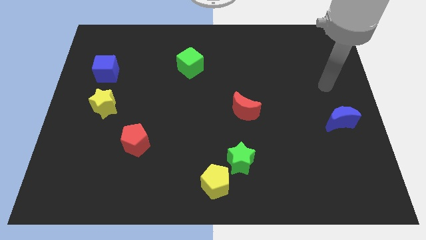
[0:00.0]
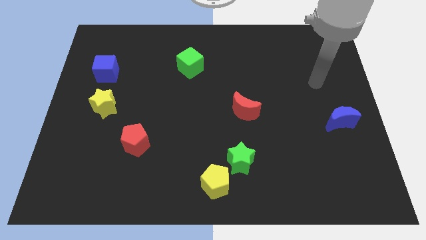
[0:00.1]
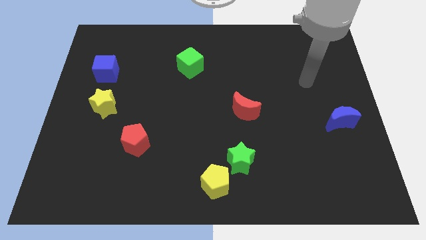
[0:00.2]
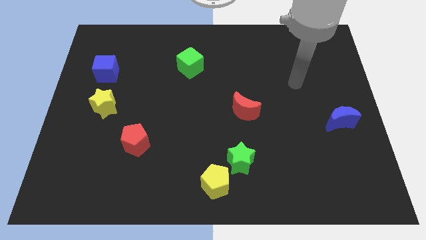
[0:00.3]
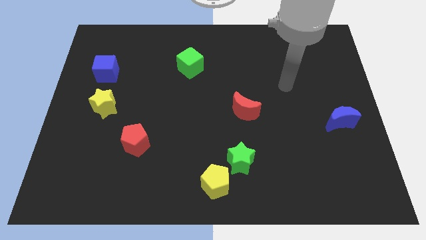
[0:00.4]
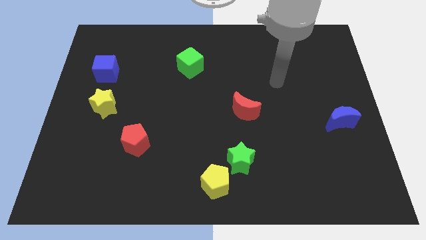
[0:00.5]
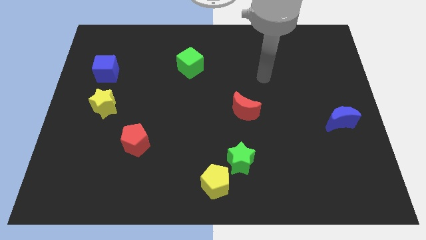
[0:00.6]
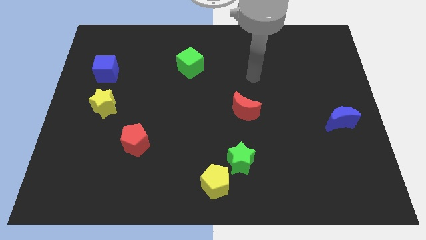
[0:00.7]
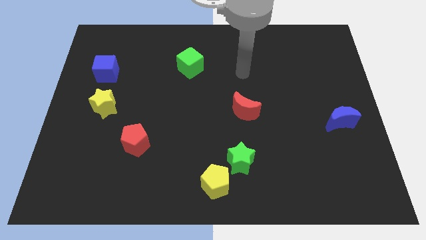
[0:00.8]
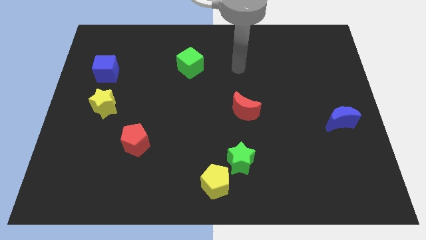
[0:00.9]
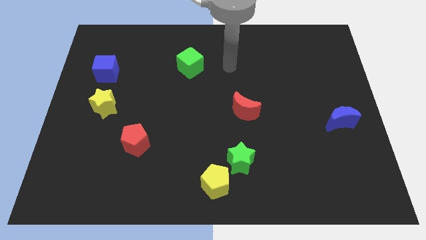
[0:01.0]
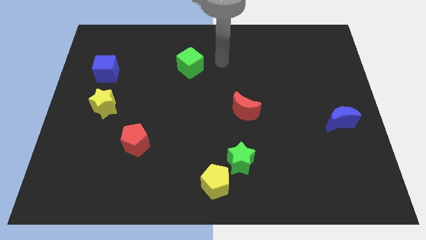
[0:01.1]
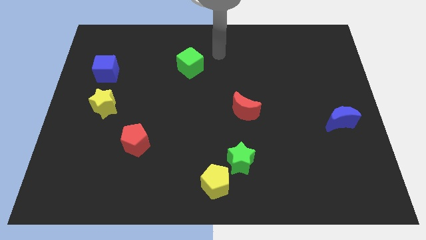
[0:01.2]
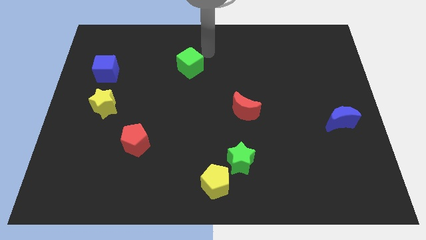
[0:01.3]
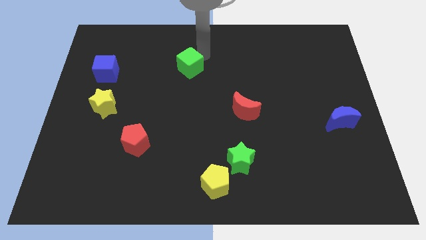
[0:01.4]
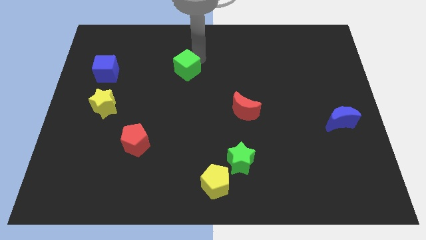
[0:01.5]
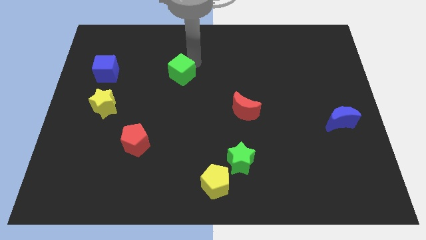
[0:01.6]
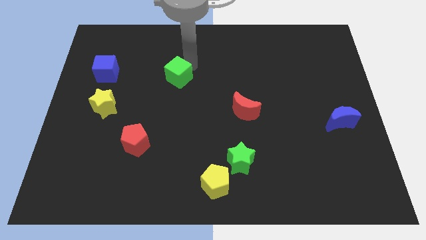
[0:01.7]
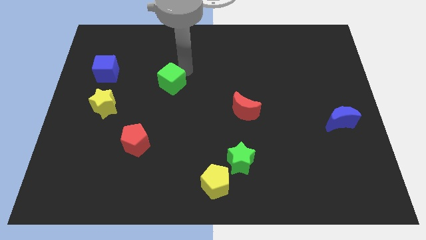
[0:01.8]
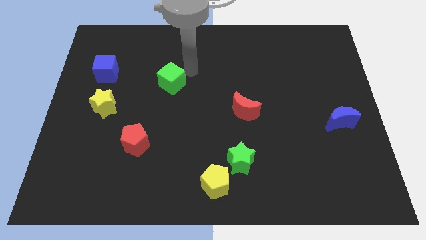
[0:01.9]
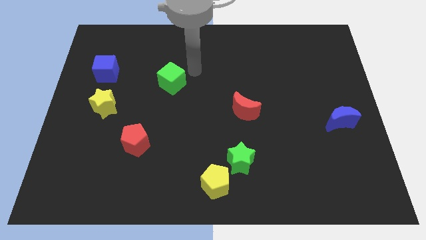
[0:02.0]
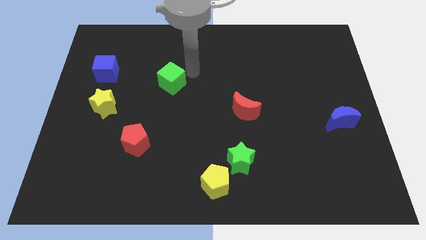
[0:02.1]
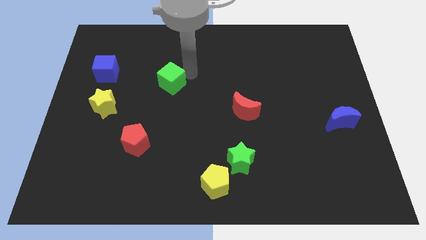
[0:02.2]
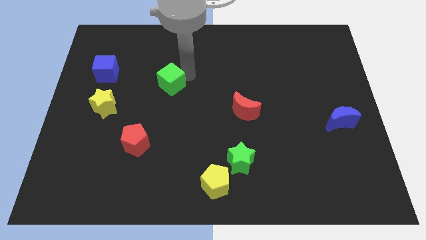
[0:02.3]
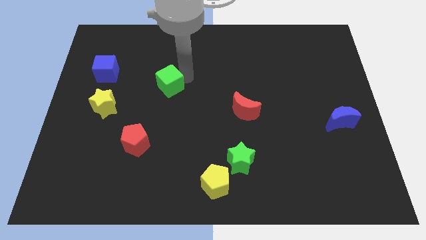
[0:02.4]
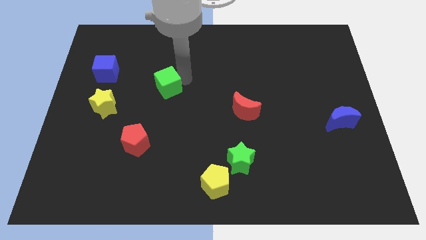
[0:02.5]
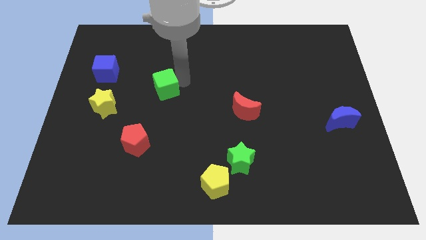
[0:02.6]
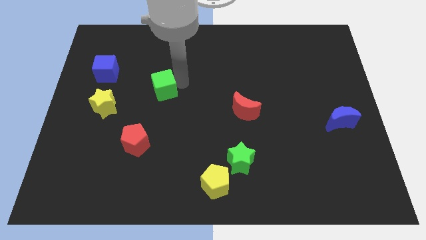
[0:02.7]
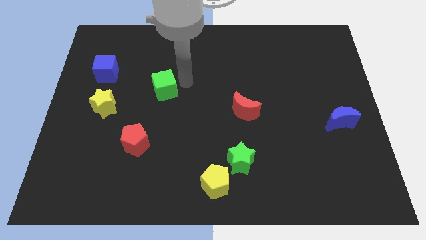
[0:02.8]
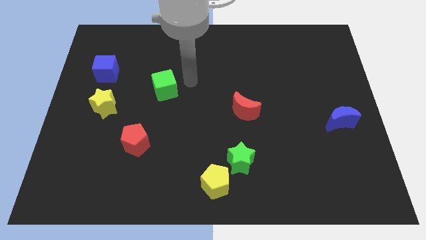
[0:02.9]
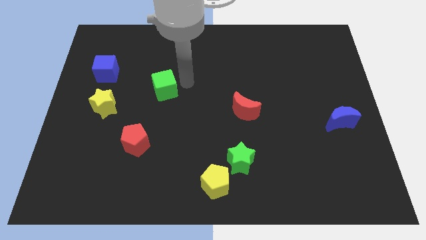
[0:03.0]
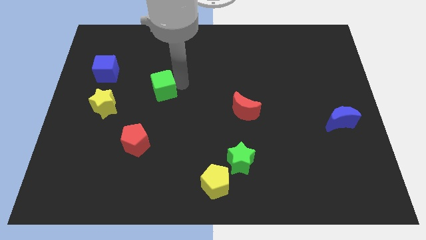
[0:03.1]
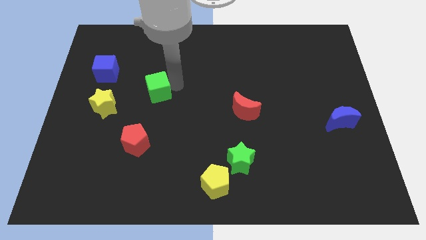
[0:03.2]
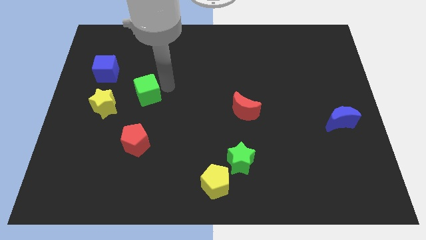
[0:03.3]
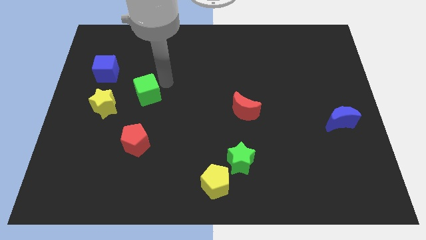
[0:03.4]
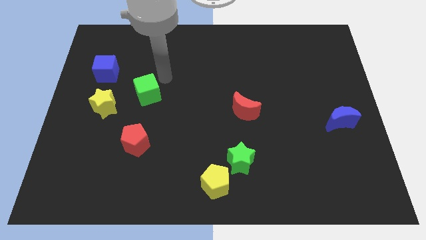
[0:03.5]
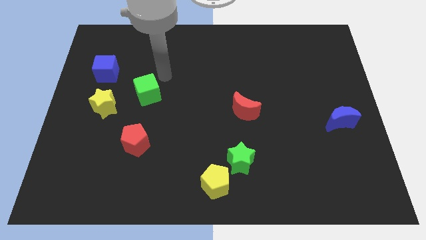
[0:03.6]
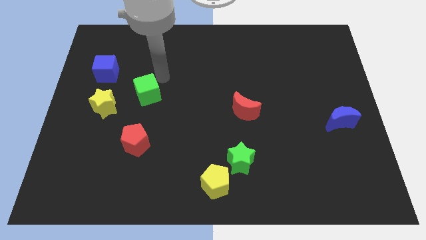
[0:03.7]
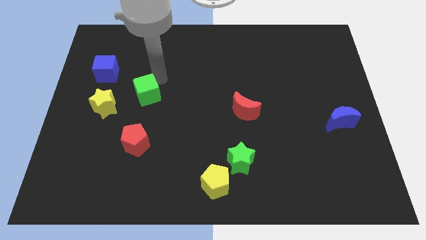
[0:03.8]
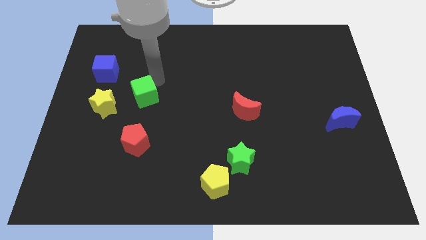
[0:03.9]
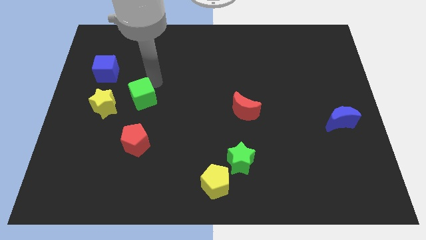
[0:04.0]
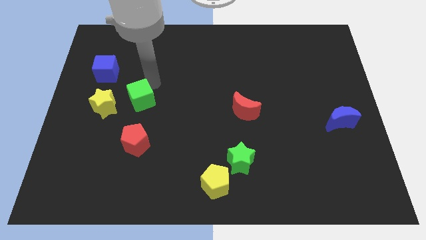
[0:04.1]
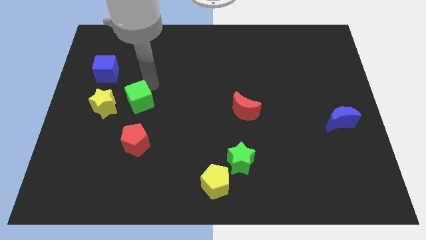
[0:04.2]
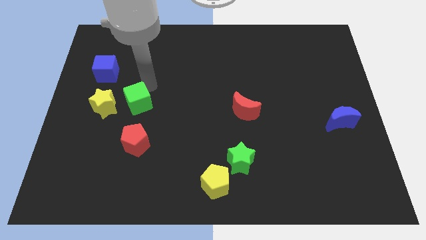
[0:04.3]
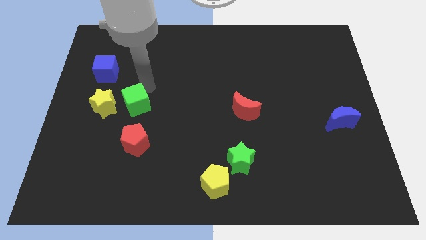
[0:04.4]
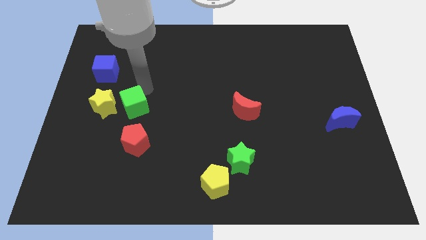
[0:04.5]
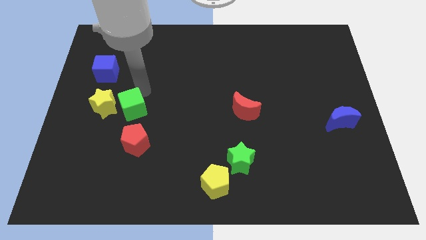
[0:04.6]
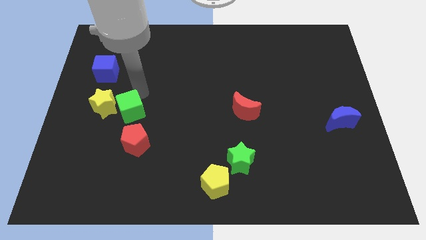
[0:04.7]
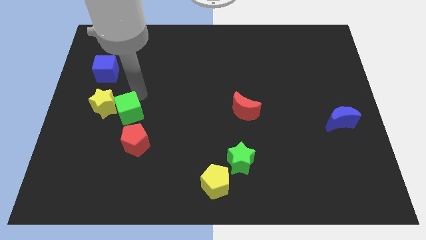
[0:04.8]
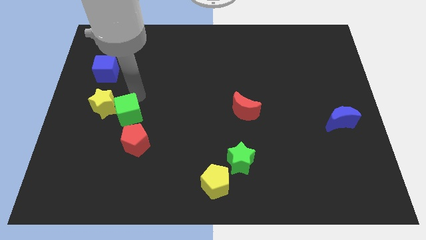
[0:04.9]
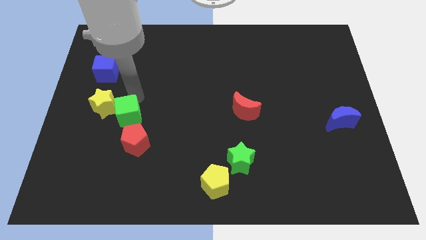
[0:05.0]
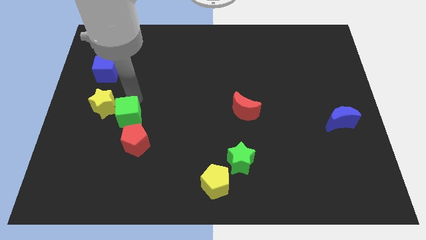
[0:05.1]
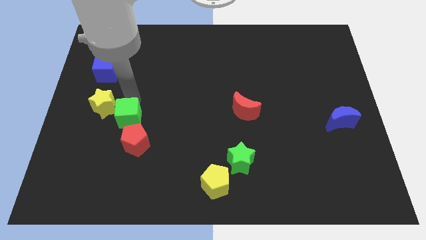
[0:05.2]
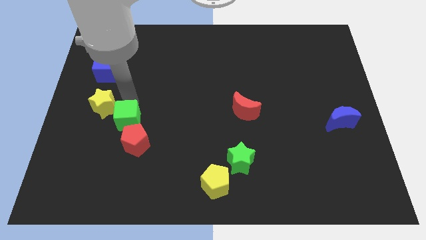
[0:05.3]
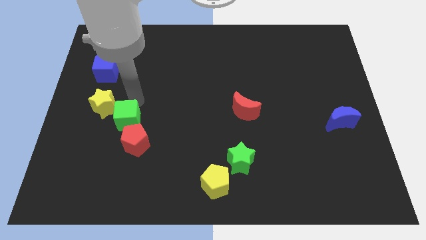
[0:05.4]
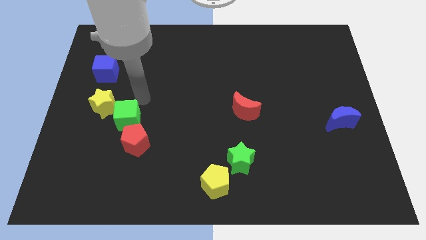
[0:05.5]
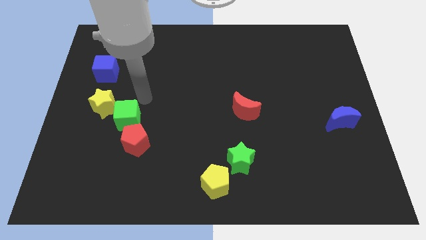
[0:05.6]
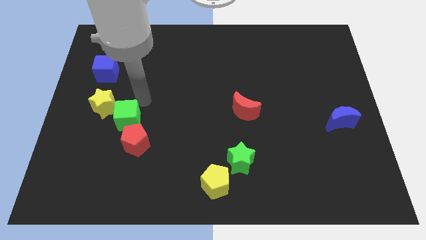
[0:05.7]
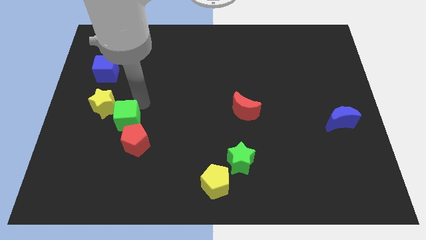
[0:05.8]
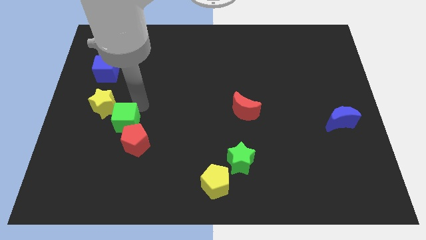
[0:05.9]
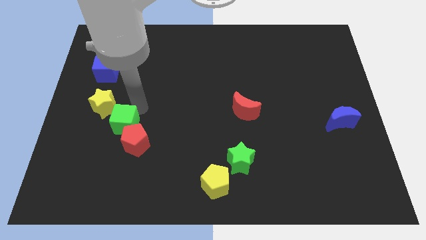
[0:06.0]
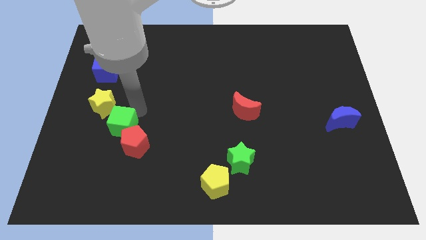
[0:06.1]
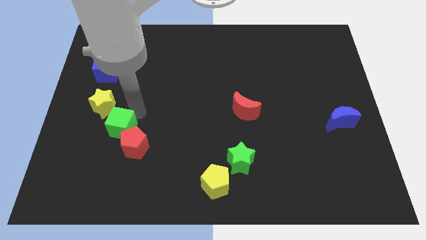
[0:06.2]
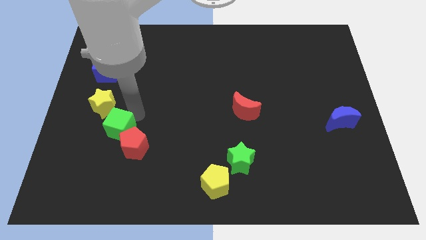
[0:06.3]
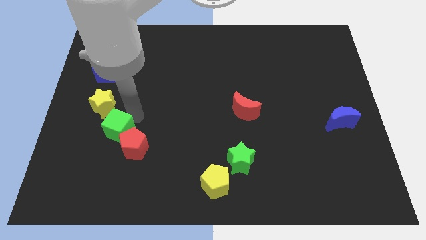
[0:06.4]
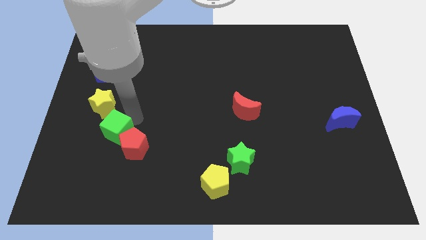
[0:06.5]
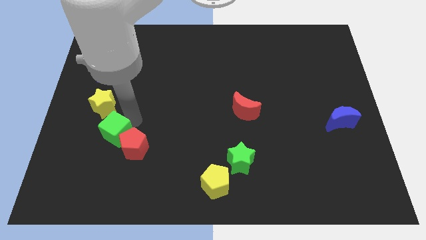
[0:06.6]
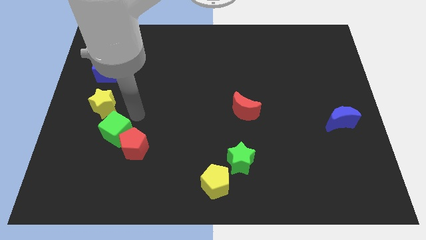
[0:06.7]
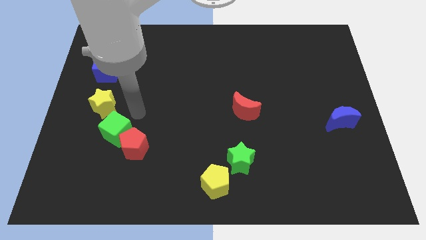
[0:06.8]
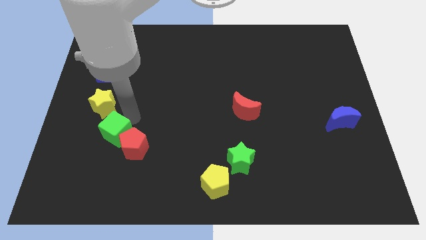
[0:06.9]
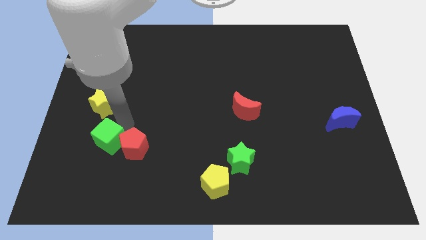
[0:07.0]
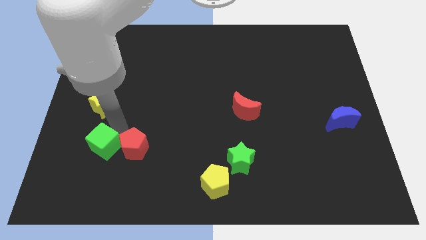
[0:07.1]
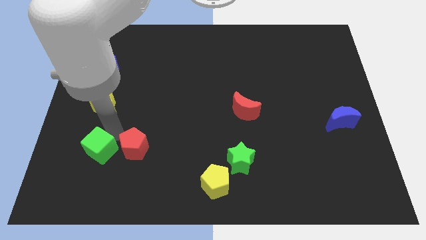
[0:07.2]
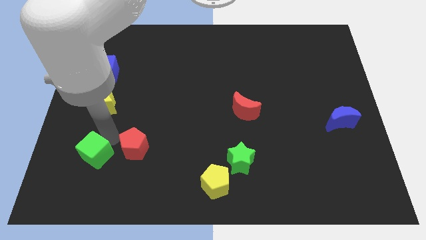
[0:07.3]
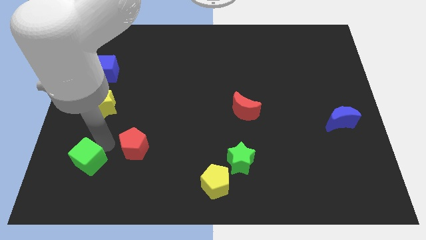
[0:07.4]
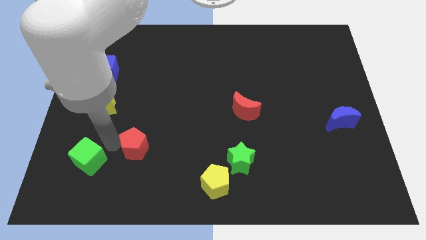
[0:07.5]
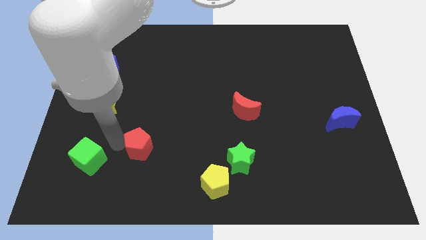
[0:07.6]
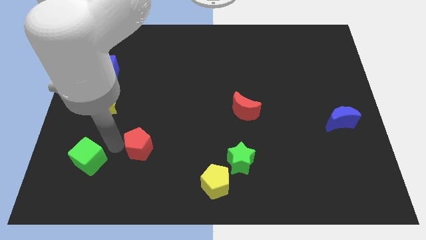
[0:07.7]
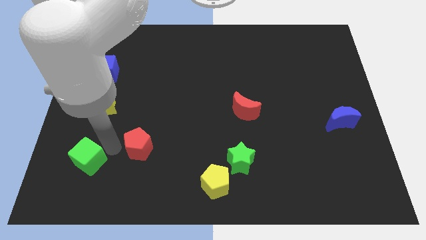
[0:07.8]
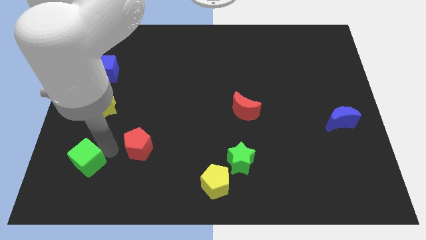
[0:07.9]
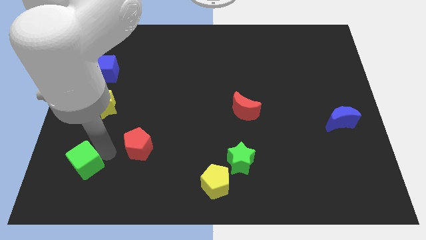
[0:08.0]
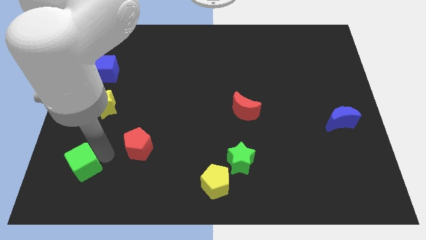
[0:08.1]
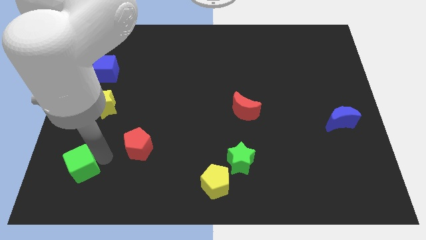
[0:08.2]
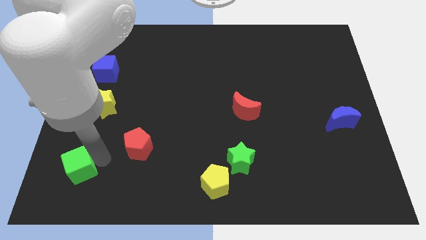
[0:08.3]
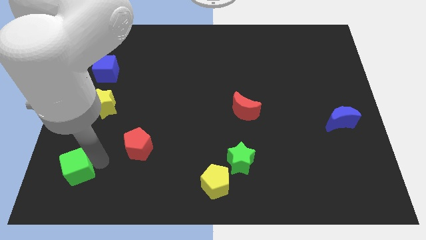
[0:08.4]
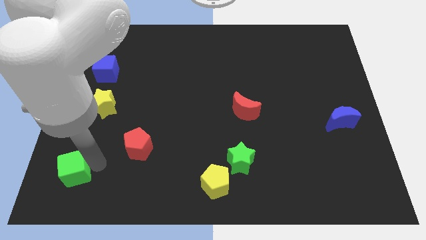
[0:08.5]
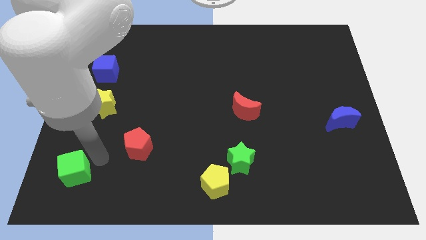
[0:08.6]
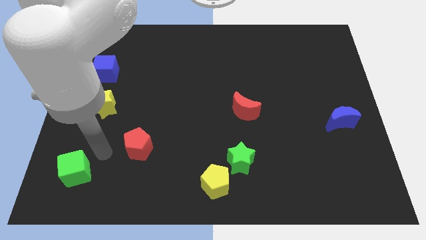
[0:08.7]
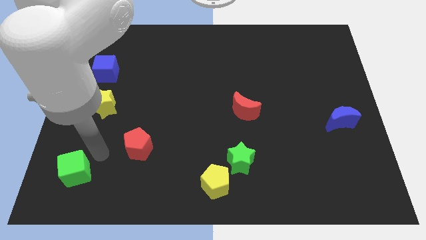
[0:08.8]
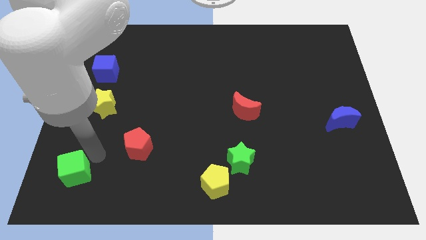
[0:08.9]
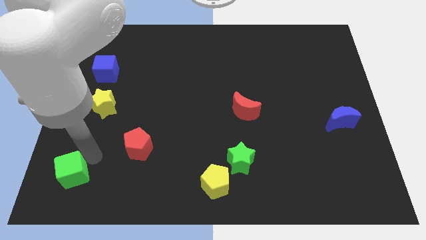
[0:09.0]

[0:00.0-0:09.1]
put the green cube to the bottom left of the board
